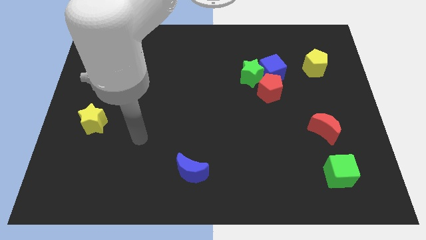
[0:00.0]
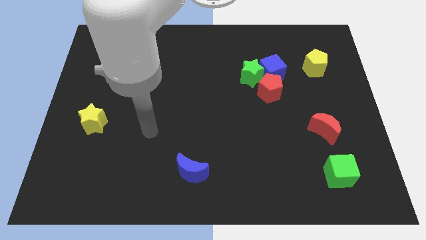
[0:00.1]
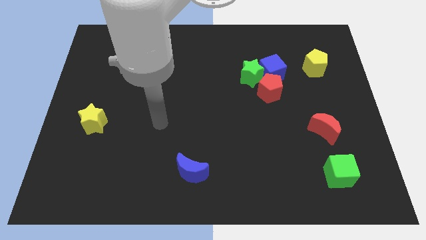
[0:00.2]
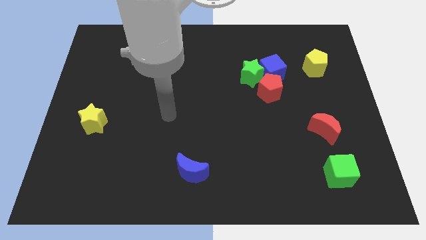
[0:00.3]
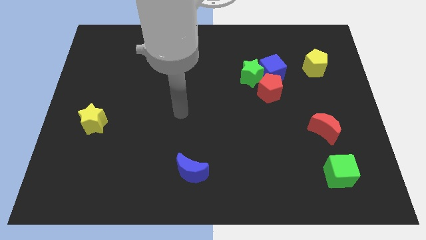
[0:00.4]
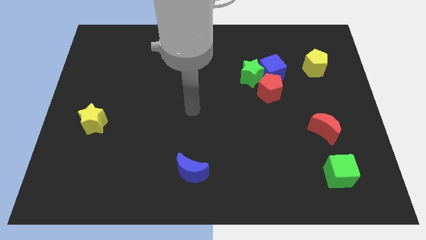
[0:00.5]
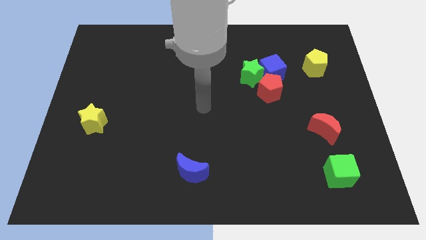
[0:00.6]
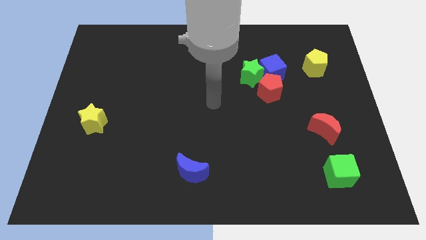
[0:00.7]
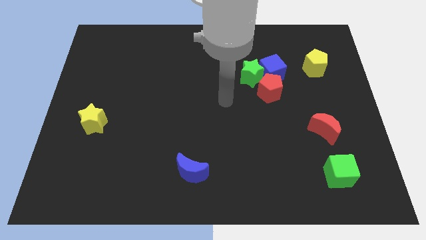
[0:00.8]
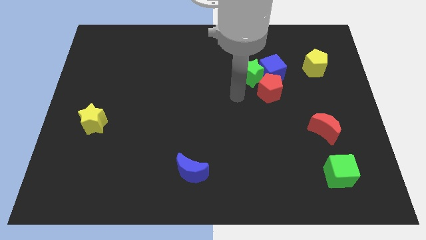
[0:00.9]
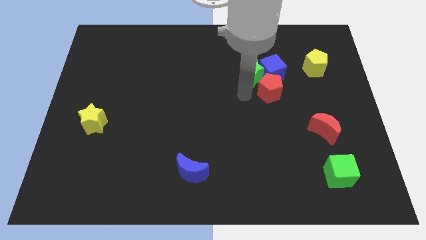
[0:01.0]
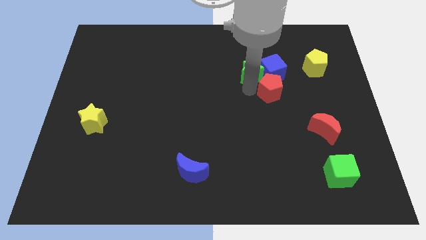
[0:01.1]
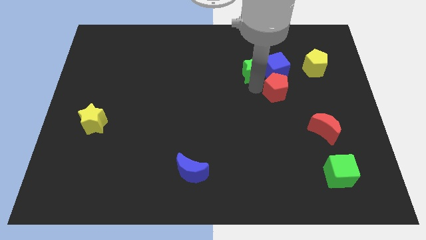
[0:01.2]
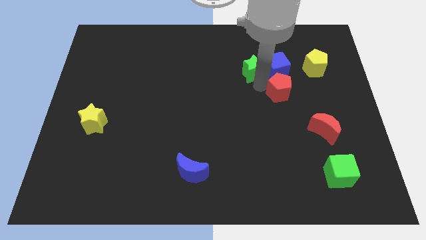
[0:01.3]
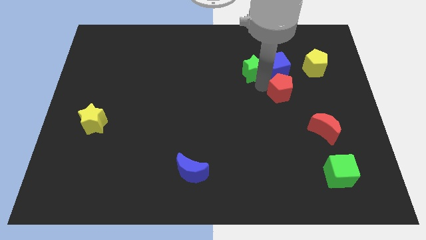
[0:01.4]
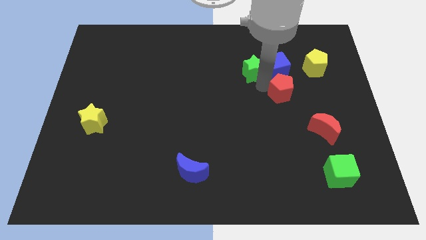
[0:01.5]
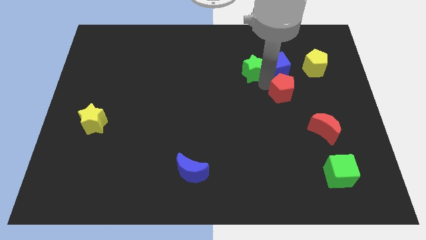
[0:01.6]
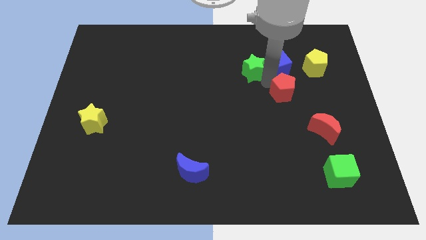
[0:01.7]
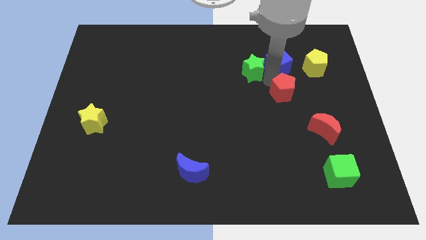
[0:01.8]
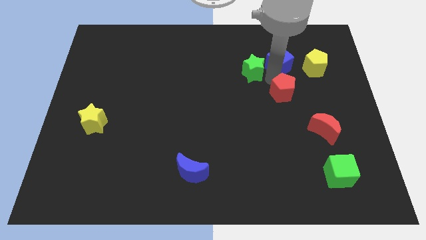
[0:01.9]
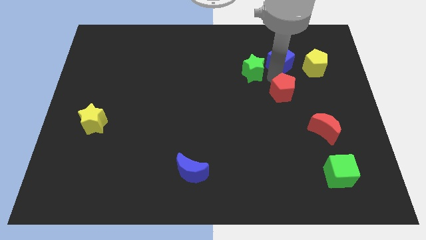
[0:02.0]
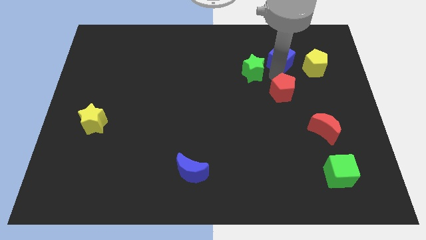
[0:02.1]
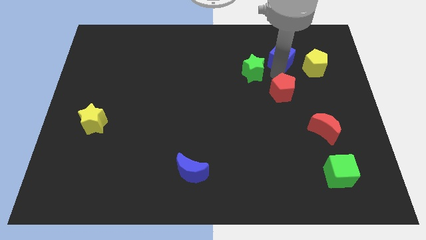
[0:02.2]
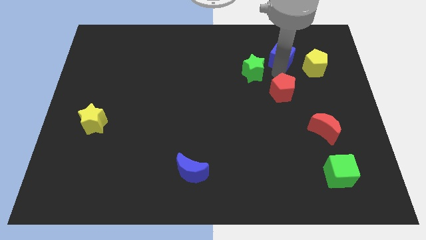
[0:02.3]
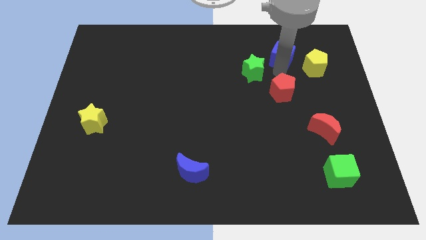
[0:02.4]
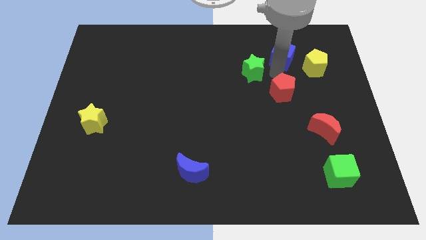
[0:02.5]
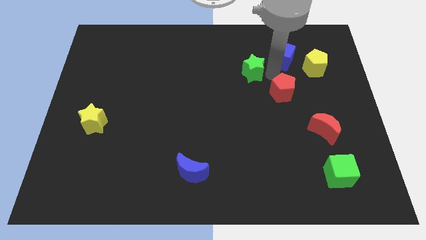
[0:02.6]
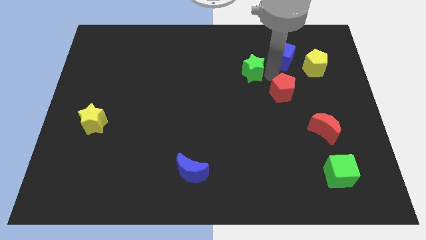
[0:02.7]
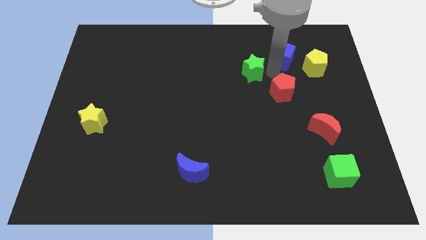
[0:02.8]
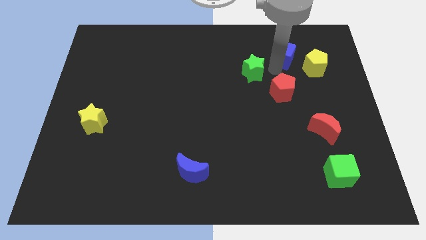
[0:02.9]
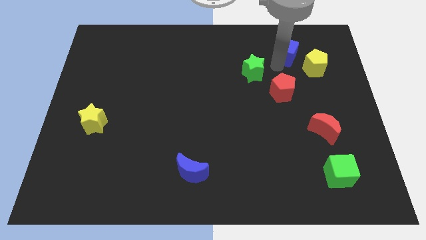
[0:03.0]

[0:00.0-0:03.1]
separate the blue cube from the green star and red pentagon

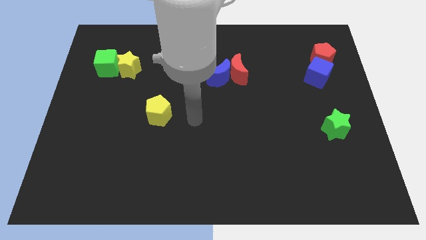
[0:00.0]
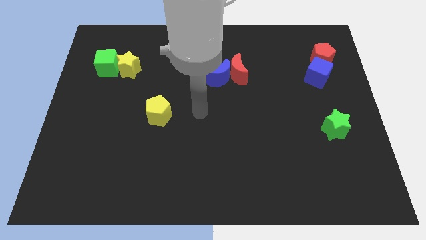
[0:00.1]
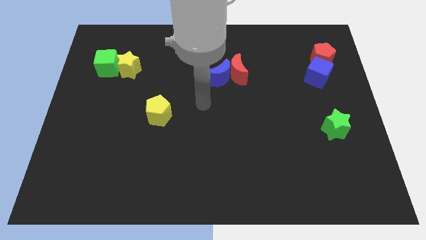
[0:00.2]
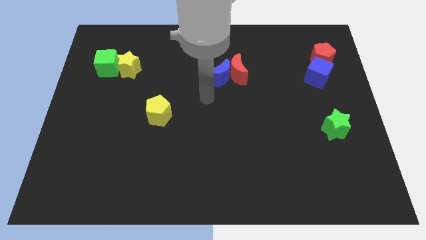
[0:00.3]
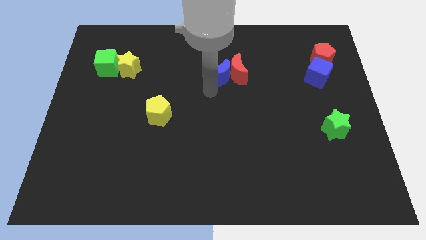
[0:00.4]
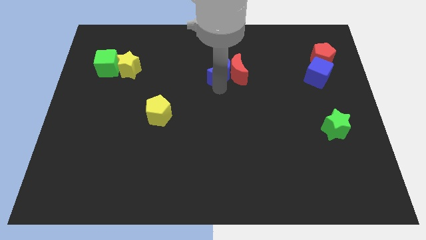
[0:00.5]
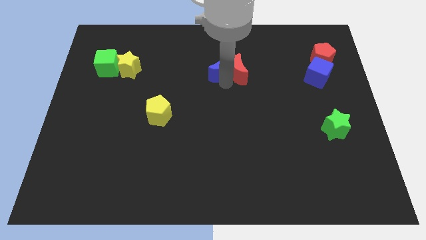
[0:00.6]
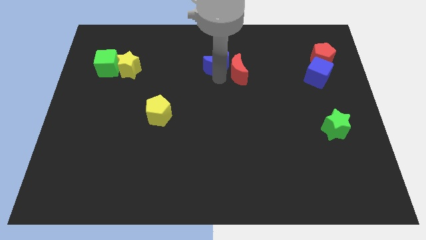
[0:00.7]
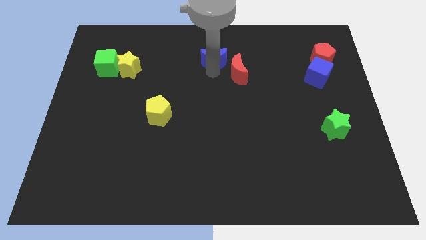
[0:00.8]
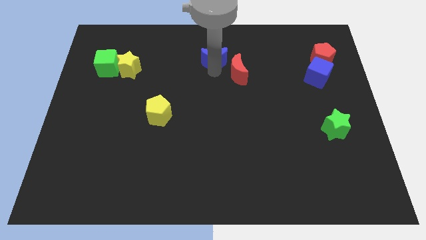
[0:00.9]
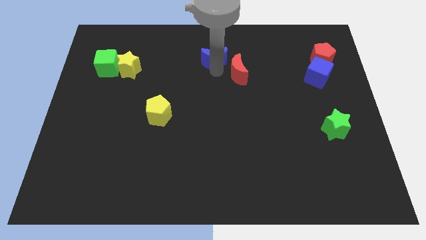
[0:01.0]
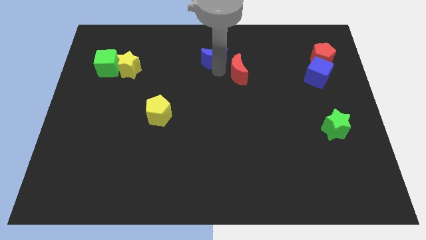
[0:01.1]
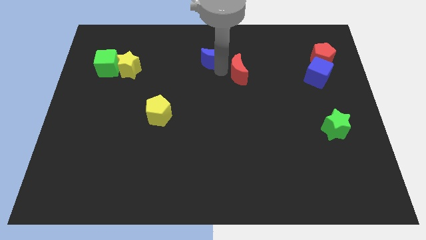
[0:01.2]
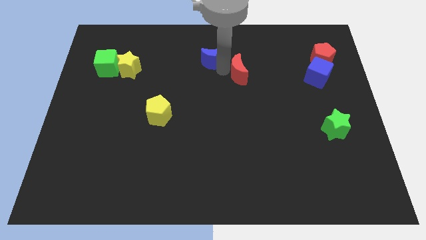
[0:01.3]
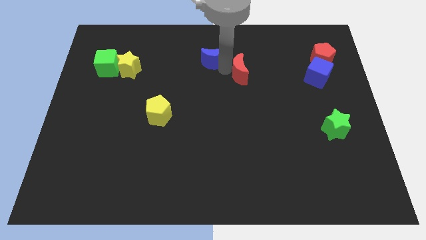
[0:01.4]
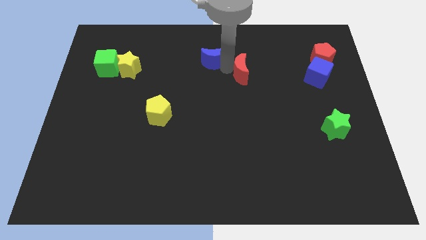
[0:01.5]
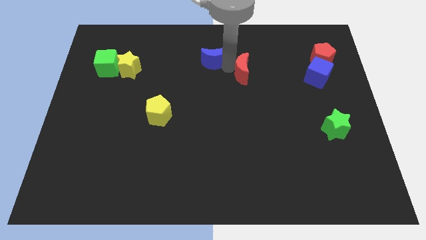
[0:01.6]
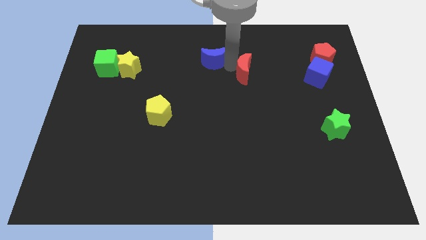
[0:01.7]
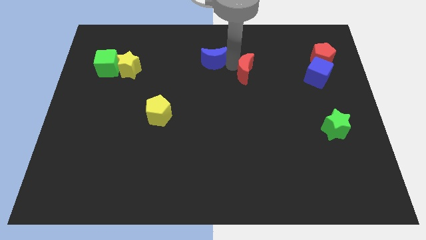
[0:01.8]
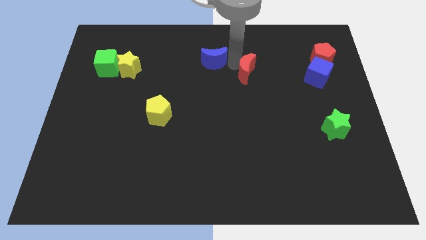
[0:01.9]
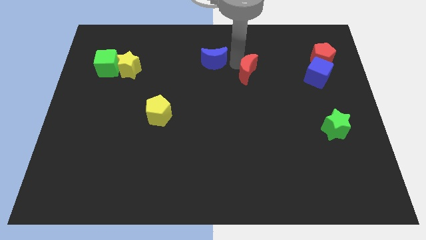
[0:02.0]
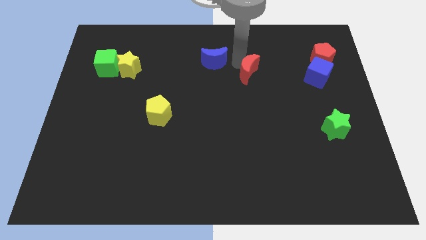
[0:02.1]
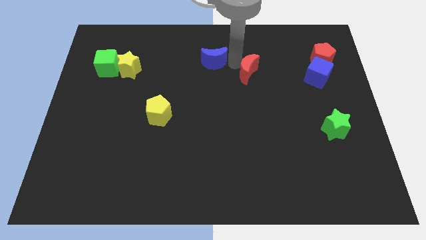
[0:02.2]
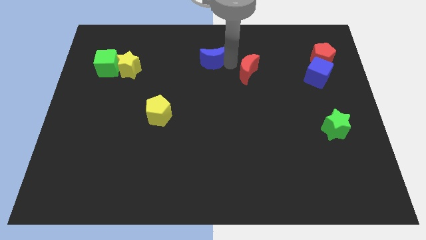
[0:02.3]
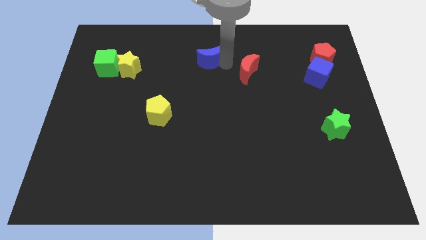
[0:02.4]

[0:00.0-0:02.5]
move the red moon away from the blue moon

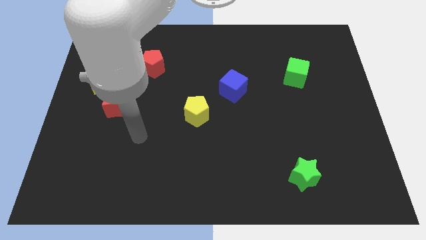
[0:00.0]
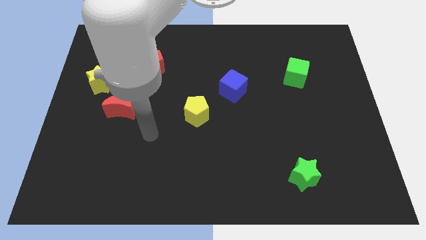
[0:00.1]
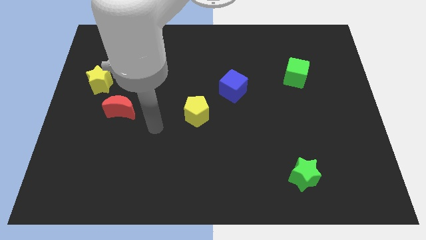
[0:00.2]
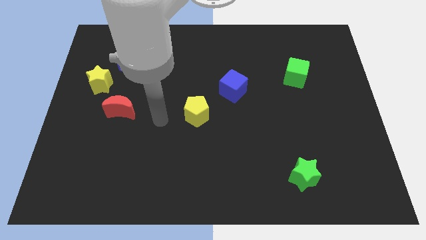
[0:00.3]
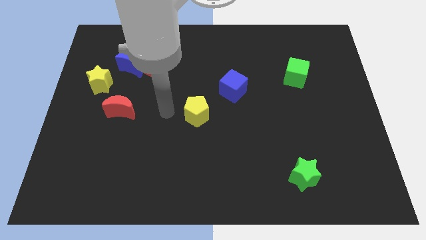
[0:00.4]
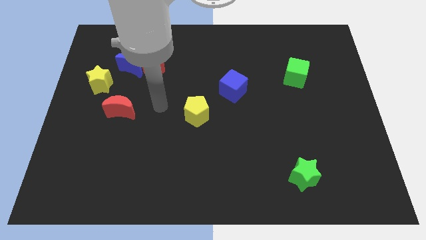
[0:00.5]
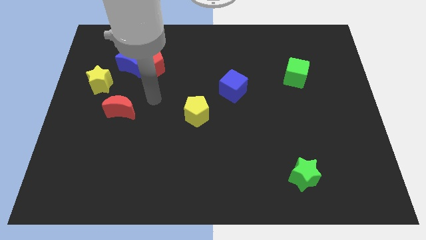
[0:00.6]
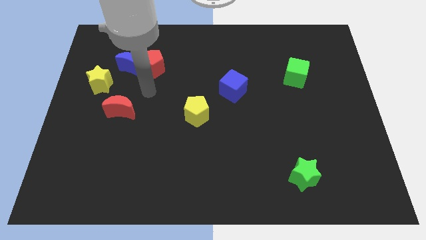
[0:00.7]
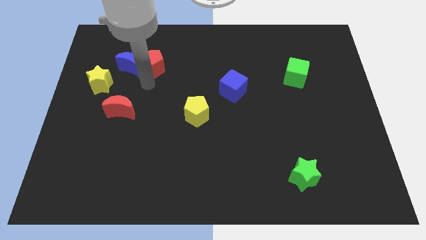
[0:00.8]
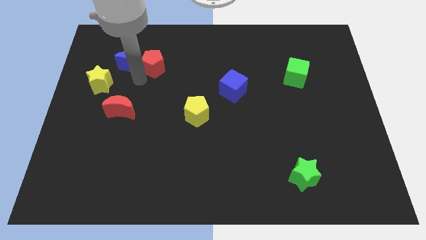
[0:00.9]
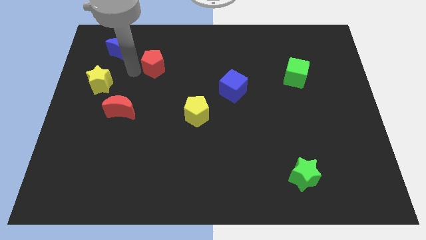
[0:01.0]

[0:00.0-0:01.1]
separate the red pentagon from the blue moon

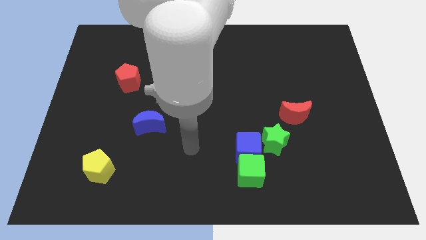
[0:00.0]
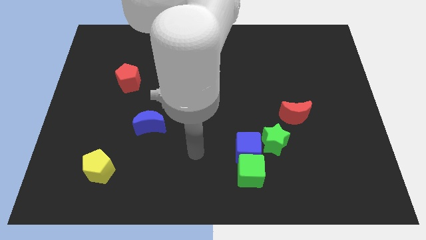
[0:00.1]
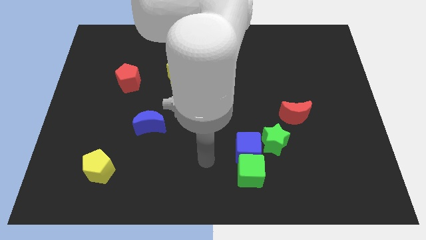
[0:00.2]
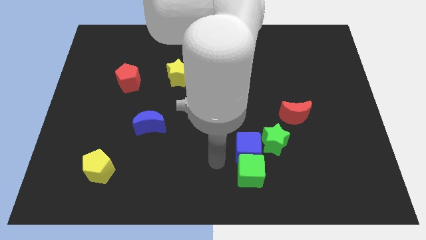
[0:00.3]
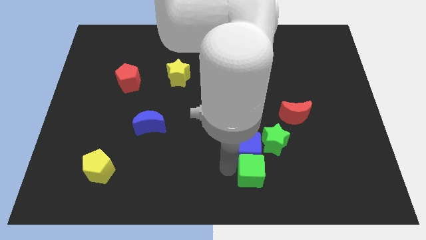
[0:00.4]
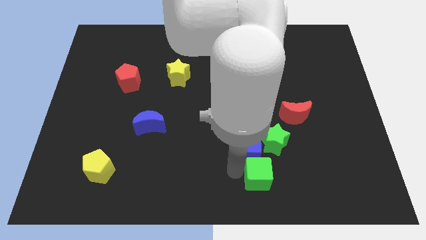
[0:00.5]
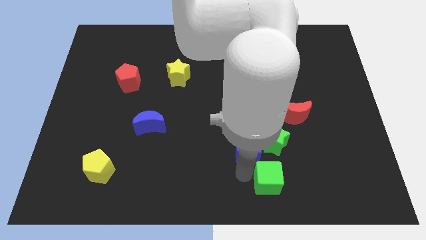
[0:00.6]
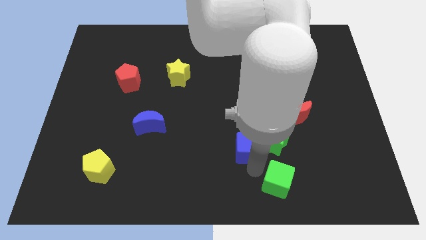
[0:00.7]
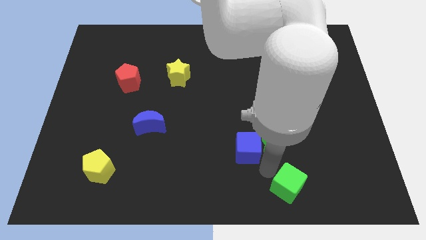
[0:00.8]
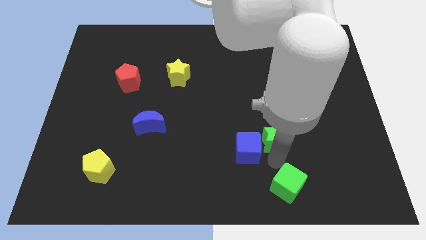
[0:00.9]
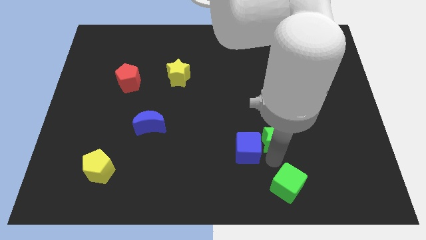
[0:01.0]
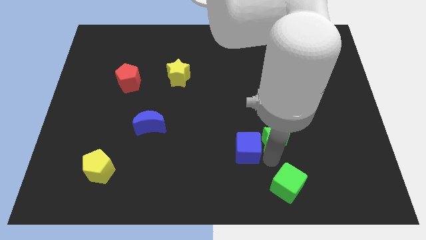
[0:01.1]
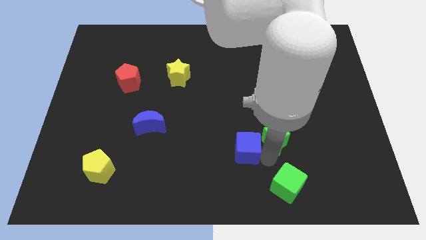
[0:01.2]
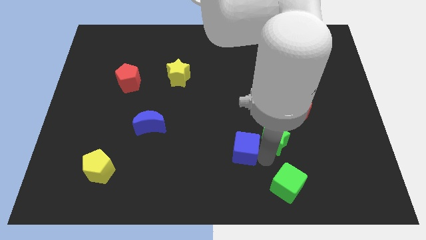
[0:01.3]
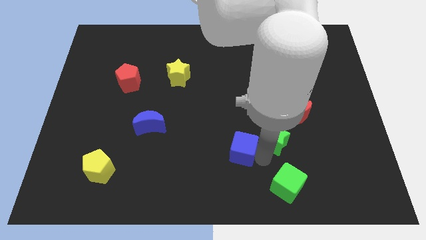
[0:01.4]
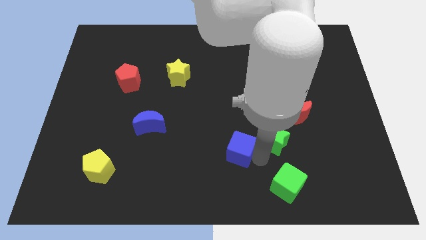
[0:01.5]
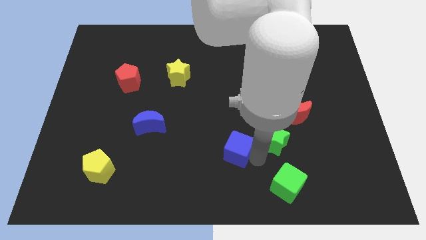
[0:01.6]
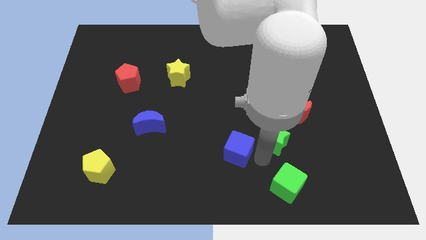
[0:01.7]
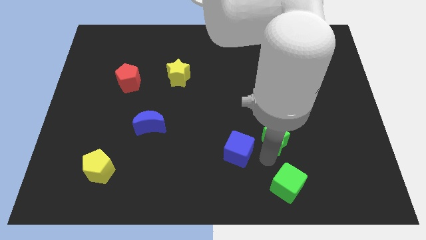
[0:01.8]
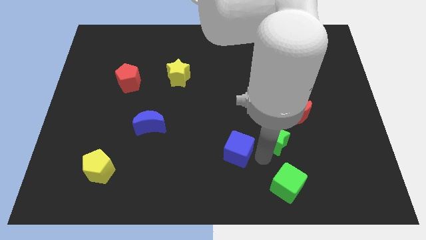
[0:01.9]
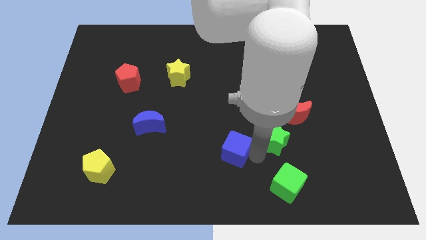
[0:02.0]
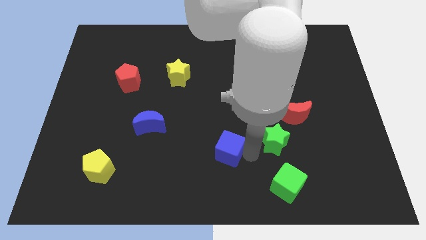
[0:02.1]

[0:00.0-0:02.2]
pull the blue cube apart from the green cube and green star

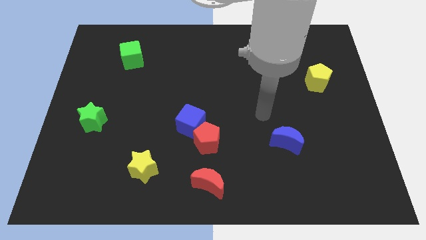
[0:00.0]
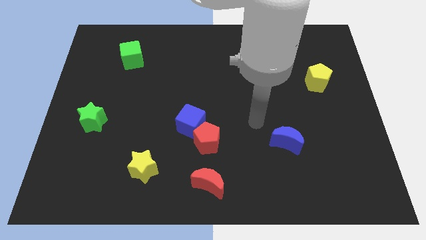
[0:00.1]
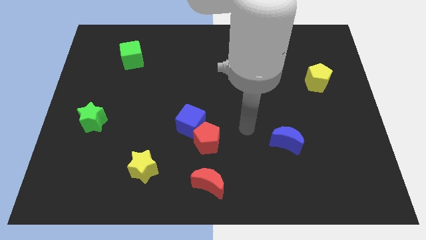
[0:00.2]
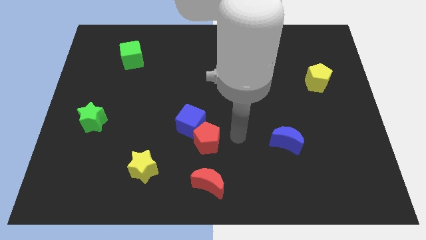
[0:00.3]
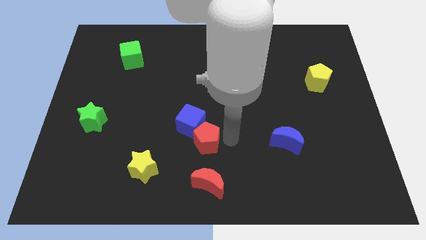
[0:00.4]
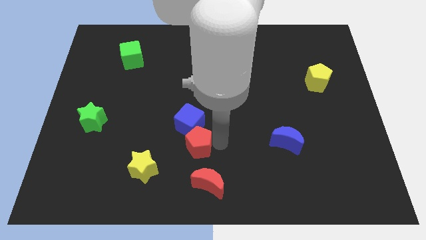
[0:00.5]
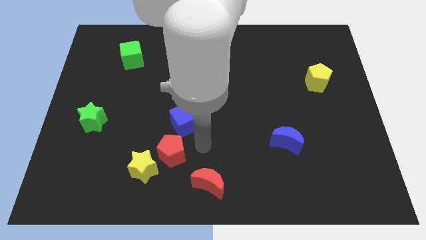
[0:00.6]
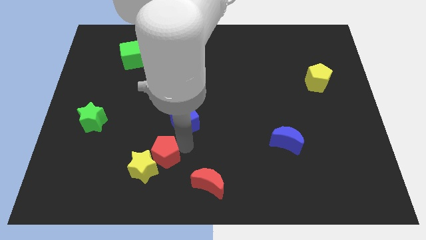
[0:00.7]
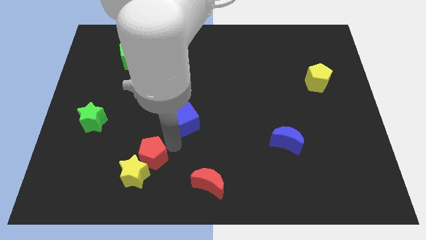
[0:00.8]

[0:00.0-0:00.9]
pull the blue cube apart from the red pentagon
